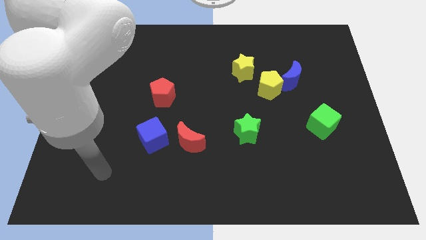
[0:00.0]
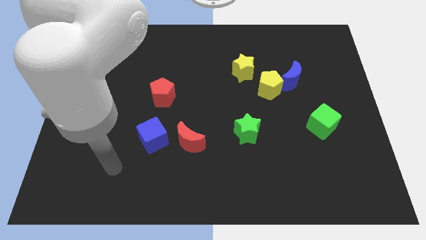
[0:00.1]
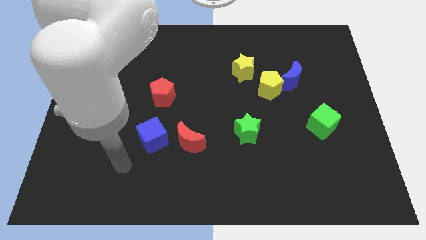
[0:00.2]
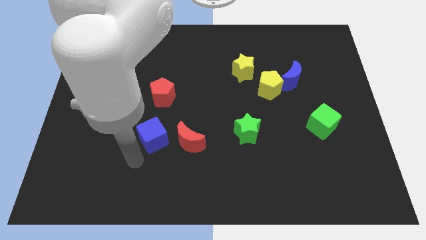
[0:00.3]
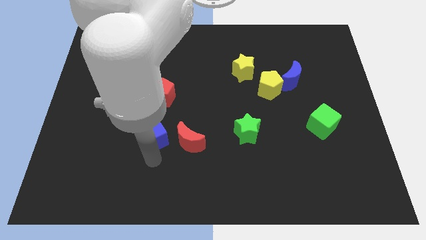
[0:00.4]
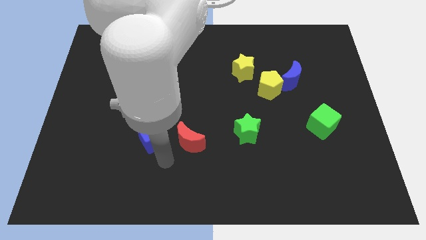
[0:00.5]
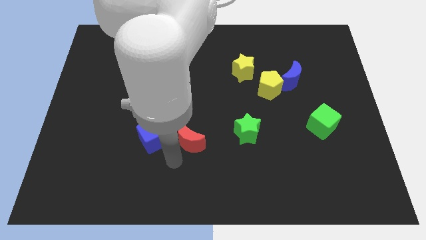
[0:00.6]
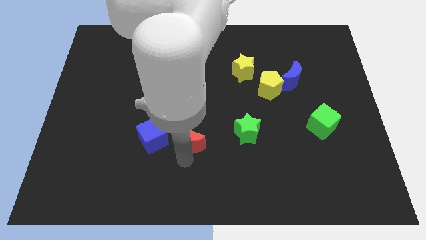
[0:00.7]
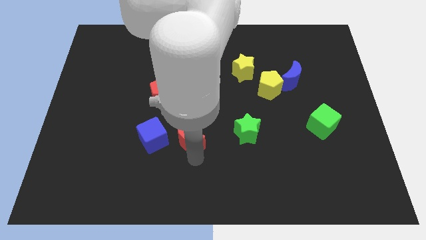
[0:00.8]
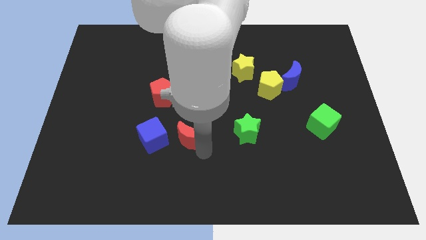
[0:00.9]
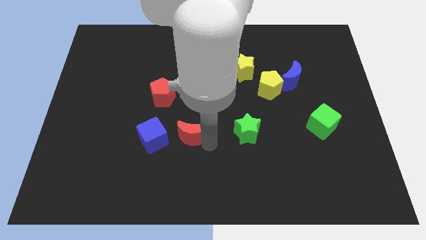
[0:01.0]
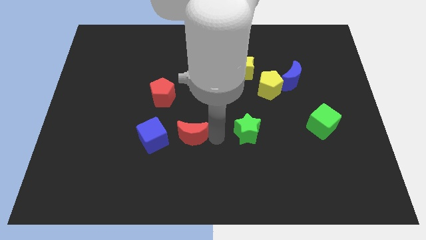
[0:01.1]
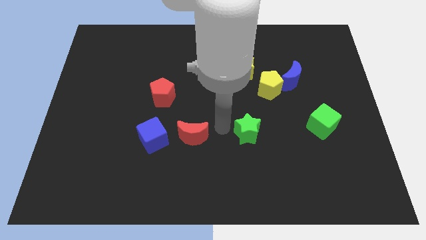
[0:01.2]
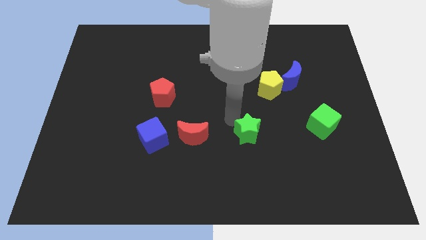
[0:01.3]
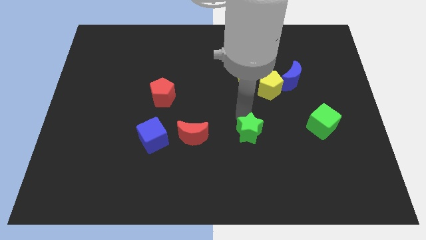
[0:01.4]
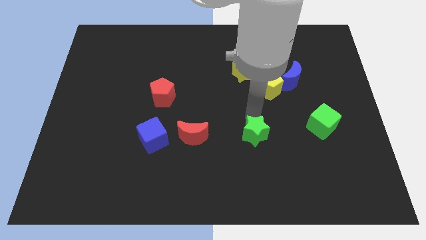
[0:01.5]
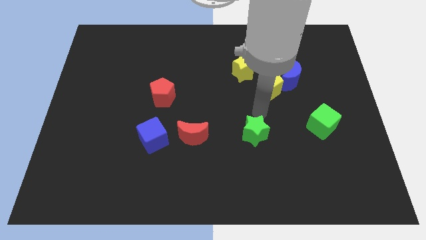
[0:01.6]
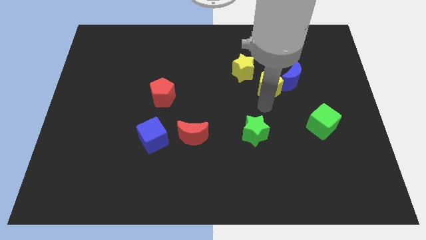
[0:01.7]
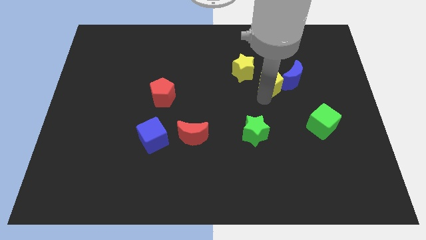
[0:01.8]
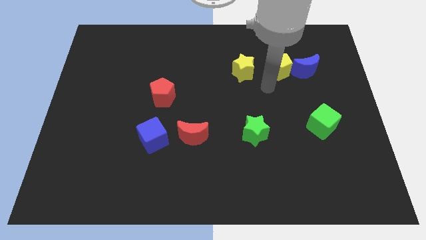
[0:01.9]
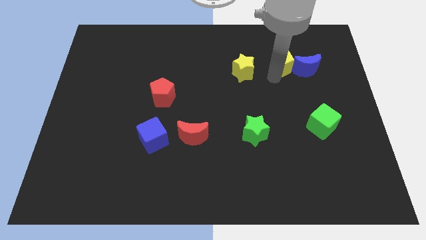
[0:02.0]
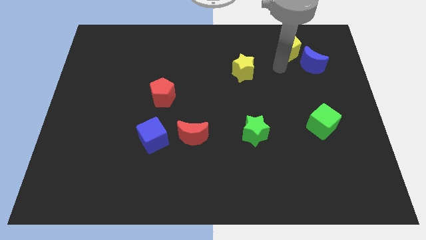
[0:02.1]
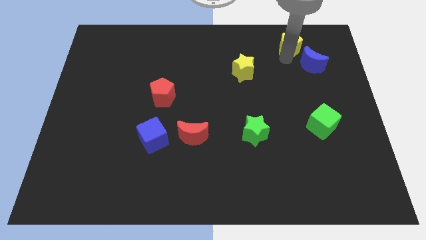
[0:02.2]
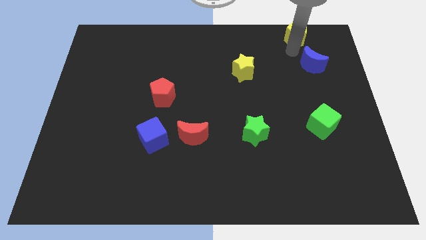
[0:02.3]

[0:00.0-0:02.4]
move the blue moon away from the yellow pentagon

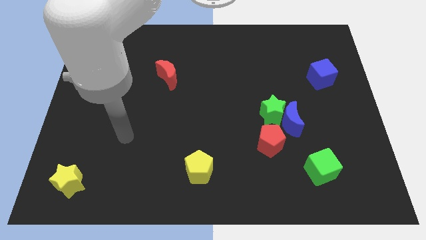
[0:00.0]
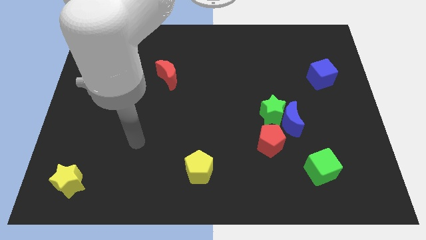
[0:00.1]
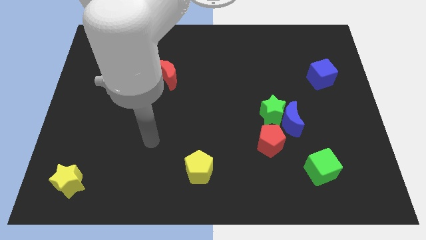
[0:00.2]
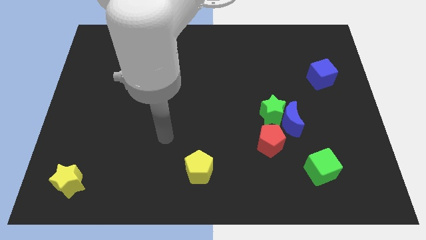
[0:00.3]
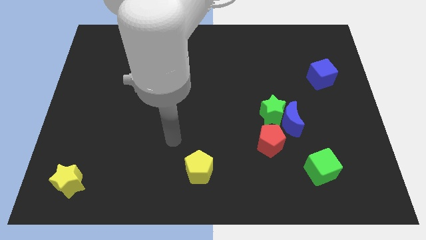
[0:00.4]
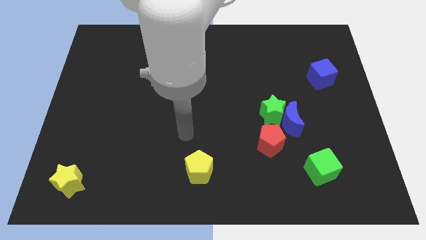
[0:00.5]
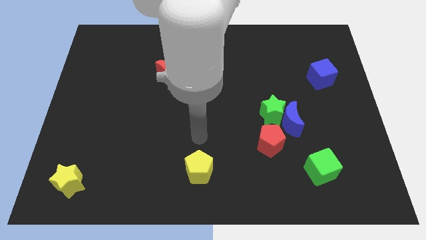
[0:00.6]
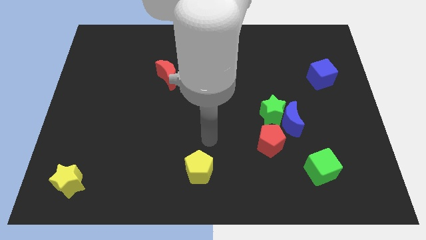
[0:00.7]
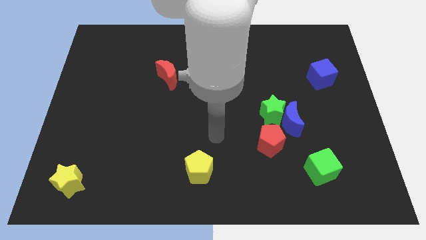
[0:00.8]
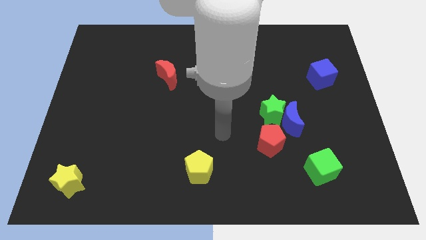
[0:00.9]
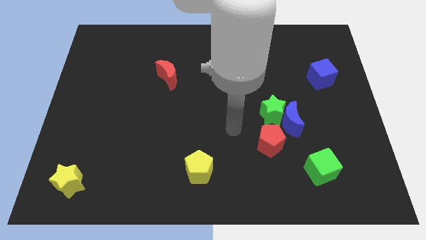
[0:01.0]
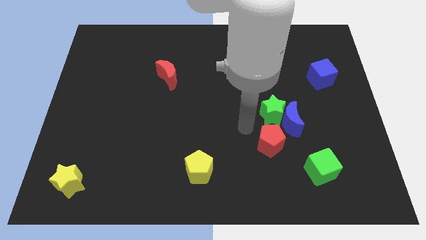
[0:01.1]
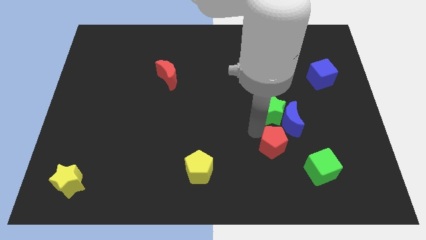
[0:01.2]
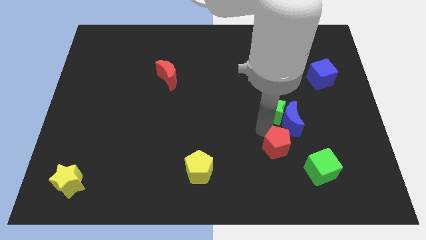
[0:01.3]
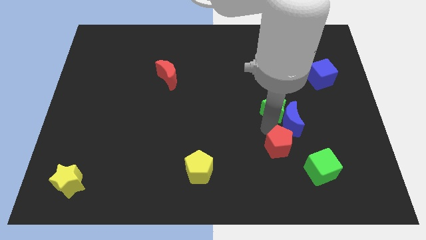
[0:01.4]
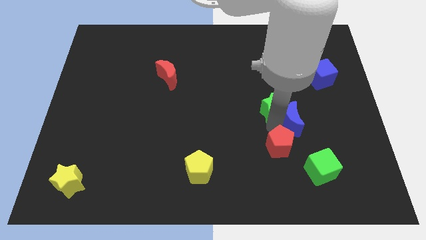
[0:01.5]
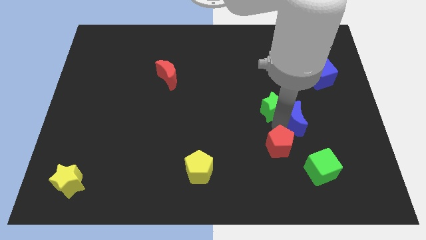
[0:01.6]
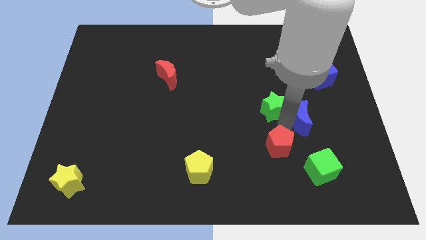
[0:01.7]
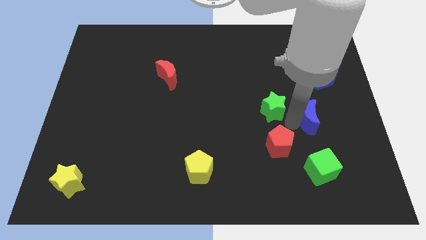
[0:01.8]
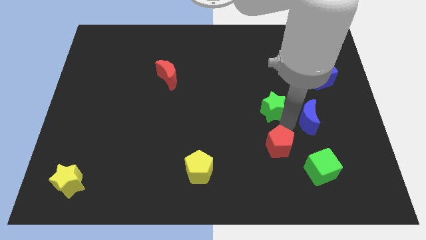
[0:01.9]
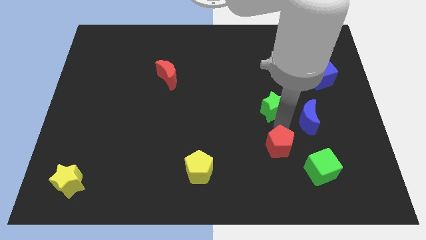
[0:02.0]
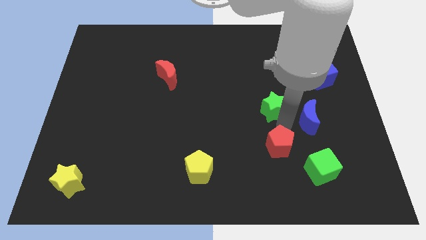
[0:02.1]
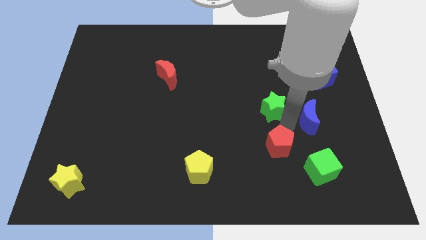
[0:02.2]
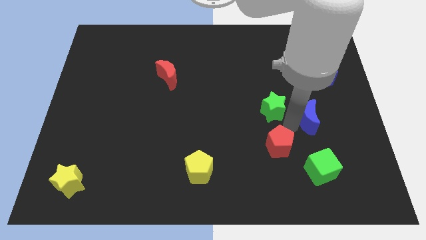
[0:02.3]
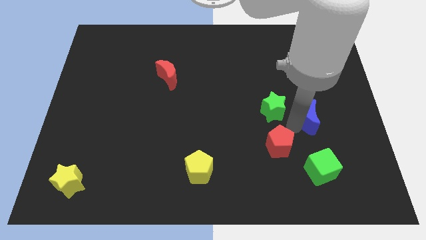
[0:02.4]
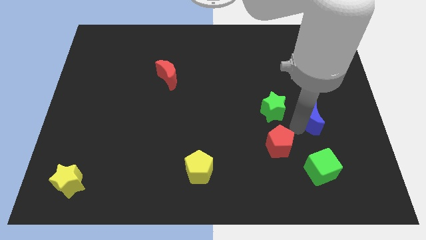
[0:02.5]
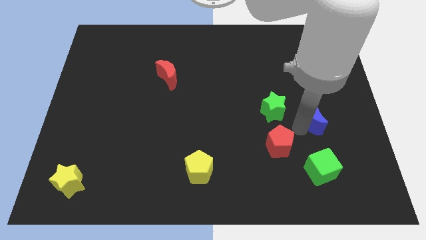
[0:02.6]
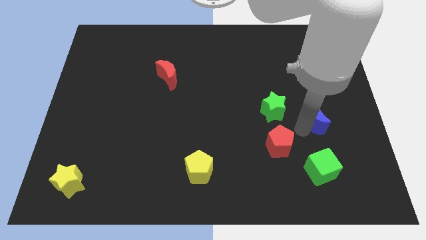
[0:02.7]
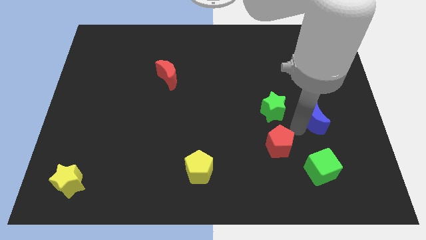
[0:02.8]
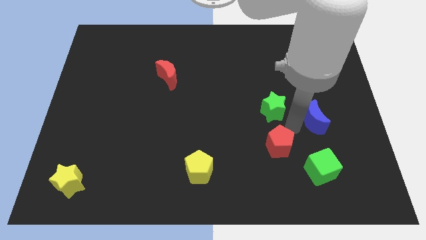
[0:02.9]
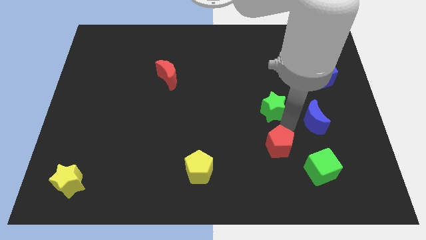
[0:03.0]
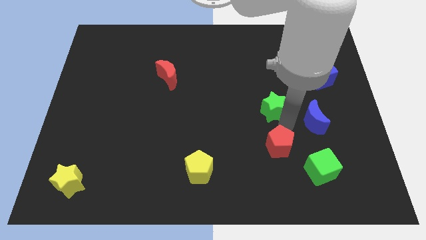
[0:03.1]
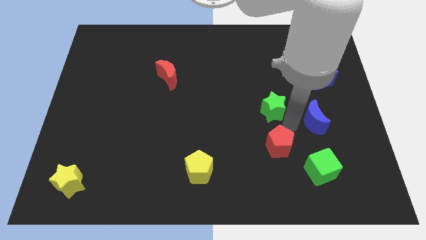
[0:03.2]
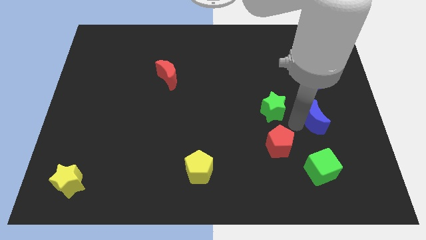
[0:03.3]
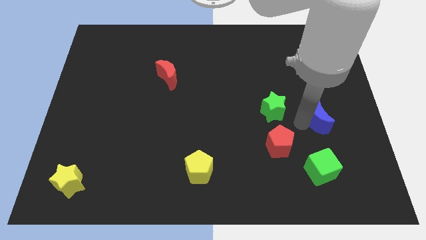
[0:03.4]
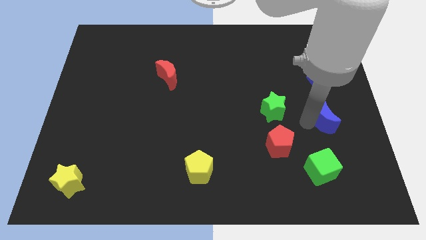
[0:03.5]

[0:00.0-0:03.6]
pull the blue moon apart from the green star and red pentagon

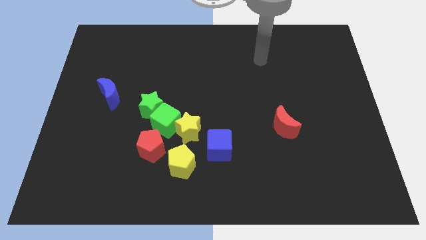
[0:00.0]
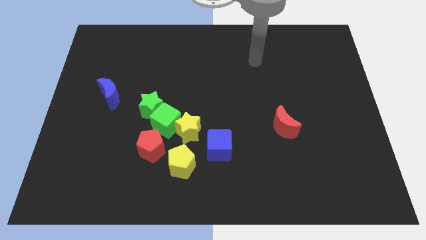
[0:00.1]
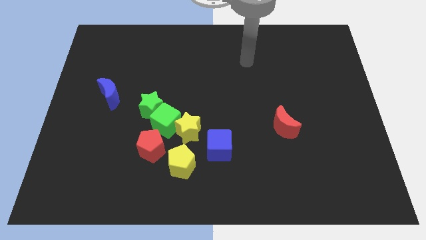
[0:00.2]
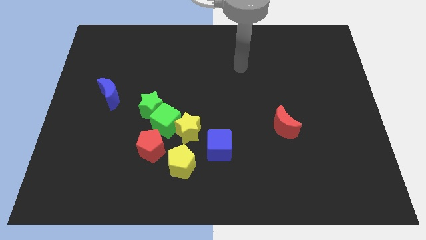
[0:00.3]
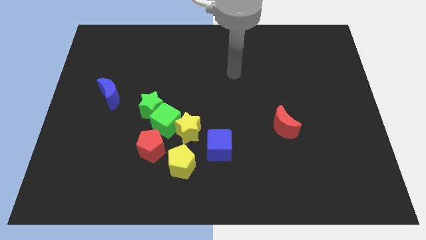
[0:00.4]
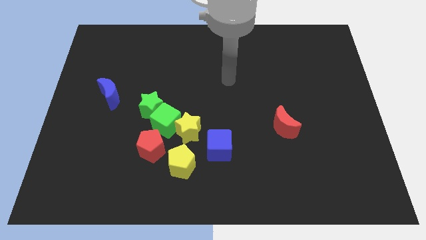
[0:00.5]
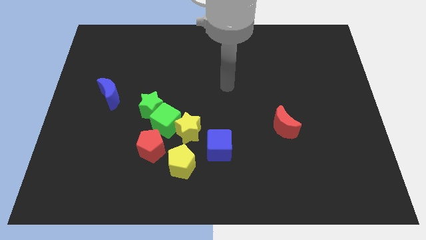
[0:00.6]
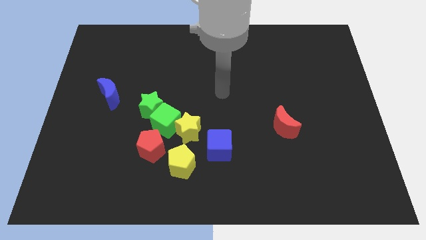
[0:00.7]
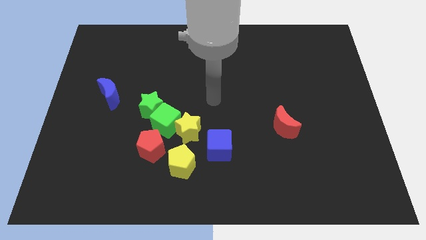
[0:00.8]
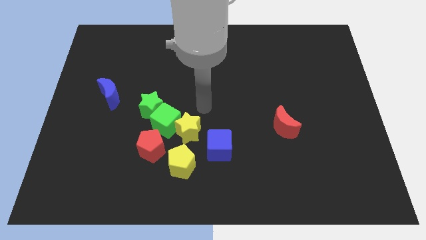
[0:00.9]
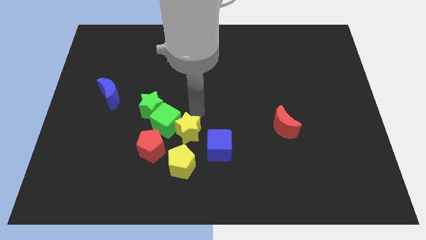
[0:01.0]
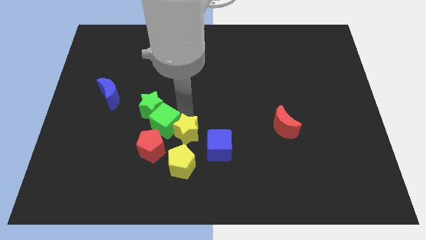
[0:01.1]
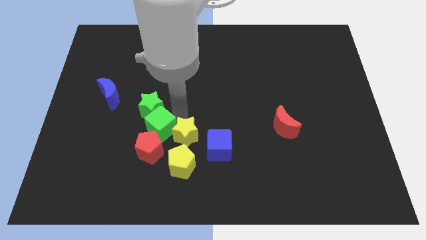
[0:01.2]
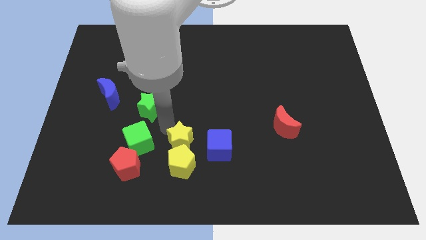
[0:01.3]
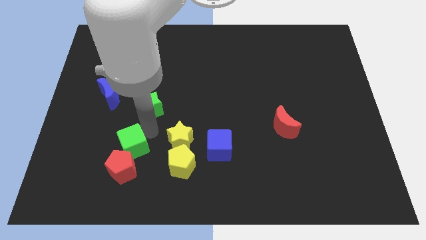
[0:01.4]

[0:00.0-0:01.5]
separate the green star from the green cube

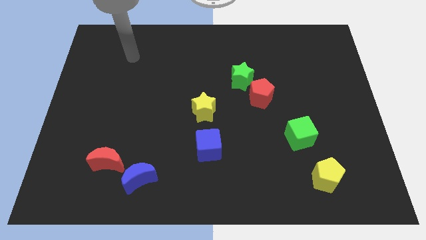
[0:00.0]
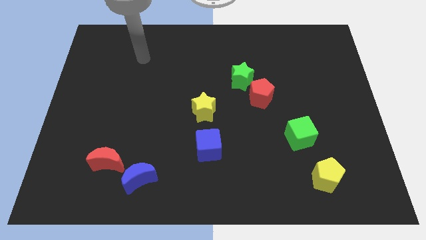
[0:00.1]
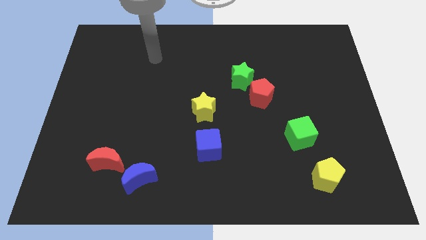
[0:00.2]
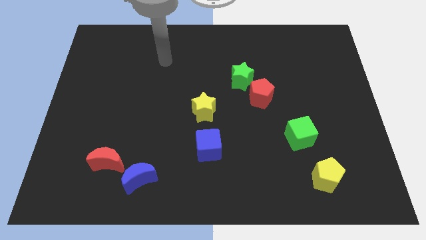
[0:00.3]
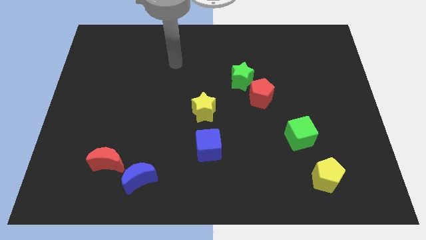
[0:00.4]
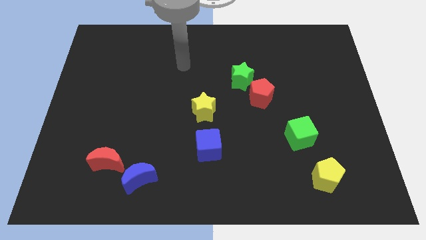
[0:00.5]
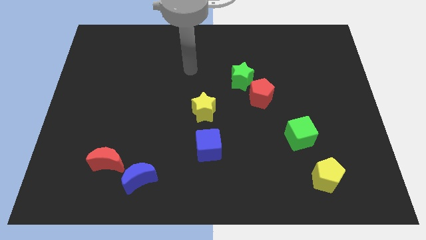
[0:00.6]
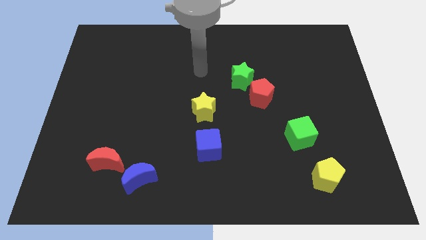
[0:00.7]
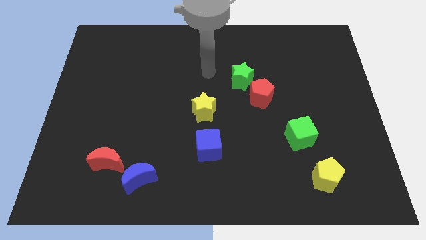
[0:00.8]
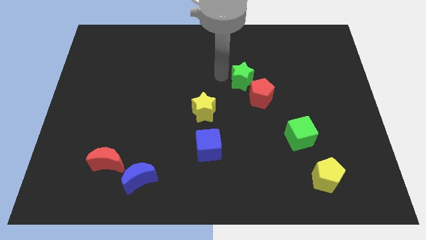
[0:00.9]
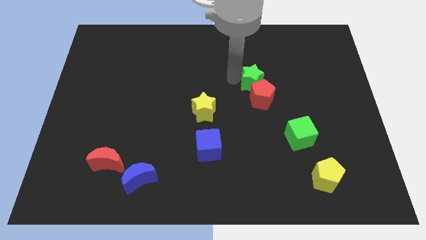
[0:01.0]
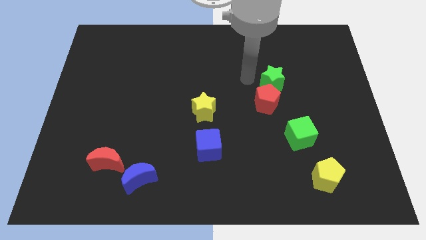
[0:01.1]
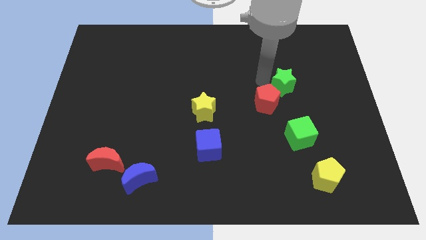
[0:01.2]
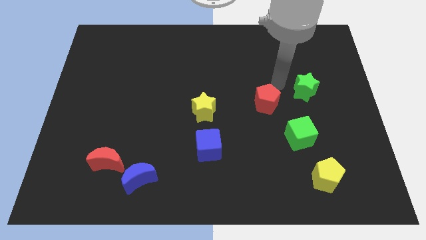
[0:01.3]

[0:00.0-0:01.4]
separate the red pentagon from the green star

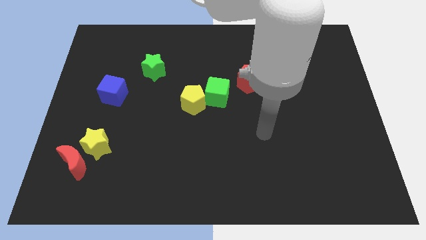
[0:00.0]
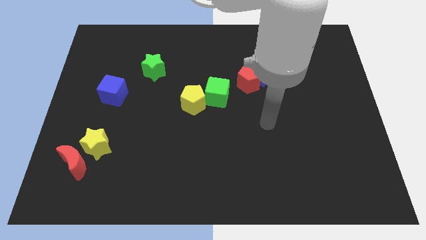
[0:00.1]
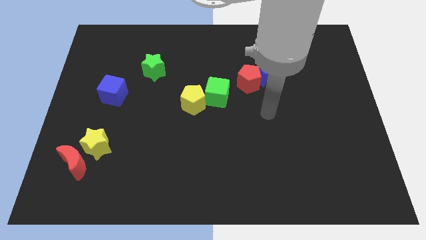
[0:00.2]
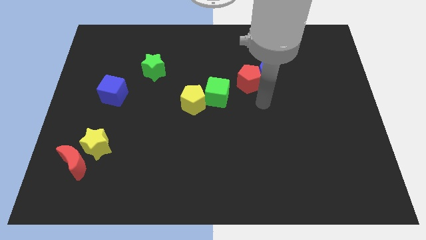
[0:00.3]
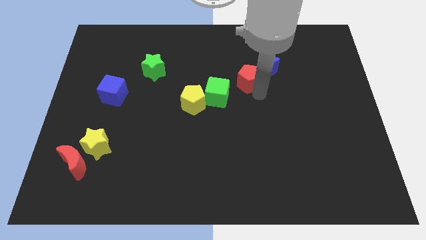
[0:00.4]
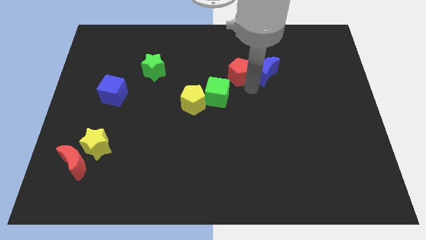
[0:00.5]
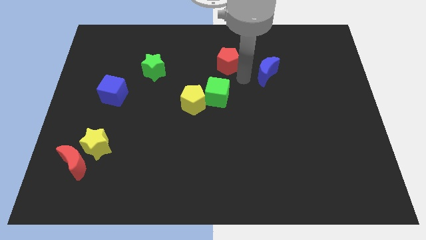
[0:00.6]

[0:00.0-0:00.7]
pull the blue moon apart from the red pentagon
